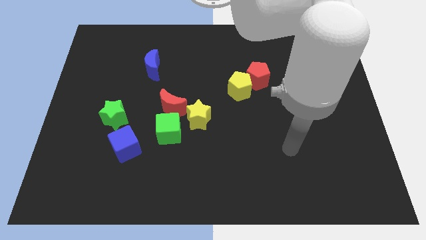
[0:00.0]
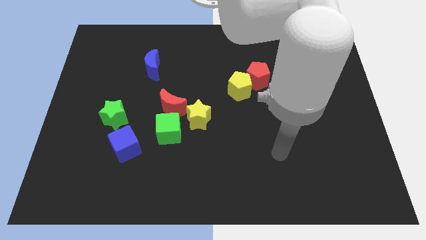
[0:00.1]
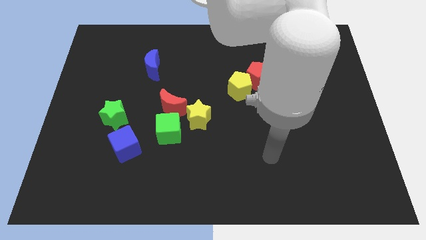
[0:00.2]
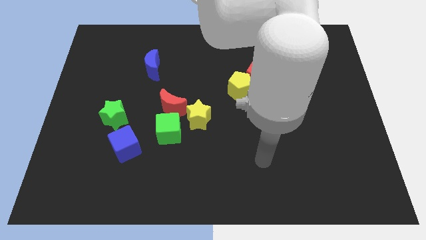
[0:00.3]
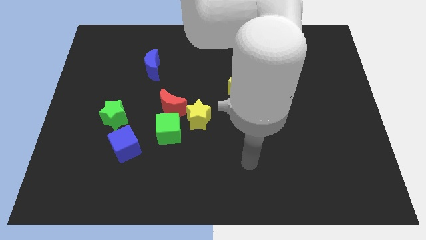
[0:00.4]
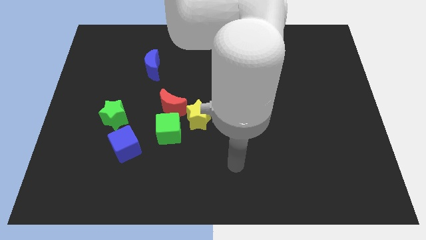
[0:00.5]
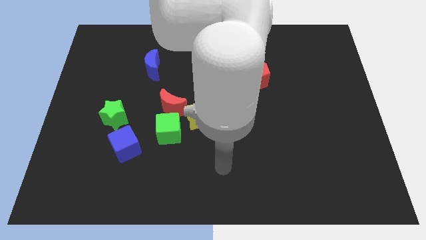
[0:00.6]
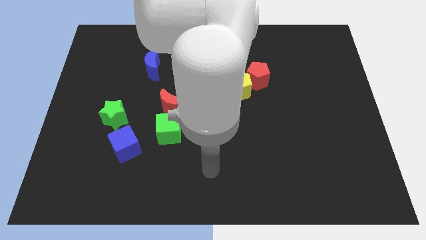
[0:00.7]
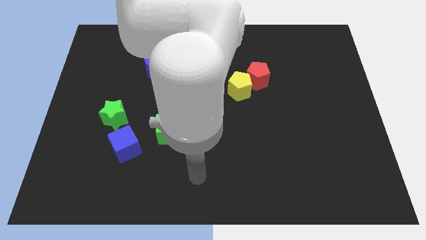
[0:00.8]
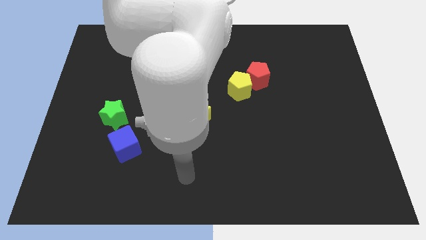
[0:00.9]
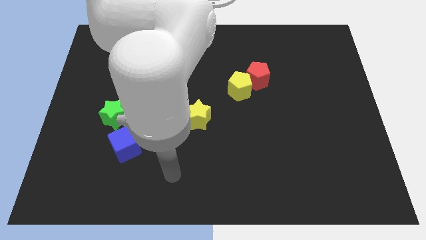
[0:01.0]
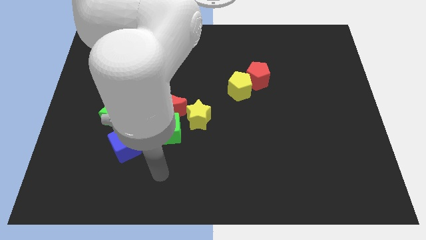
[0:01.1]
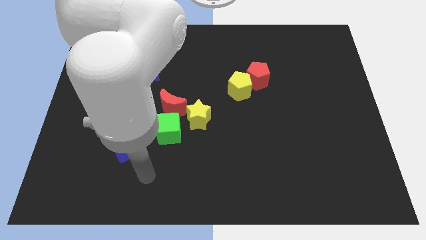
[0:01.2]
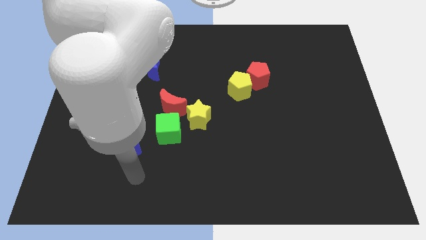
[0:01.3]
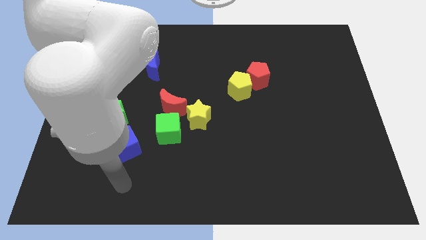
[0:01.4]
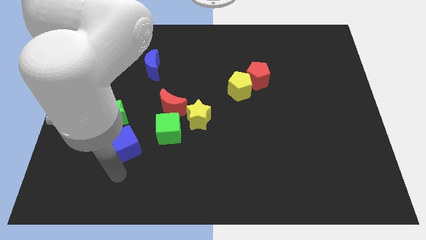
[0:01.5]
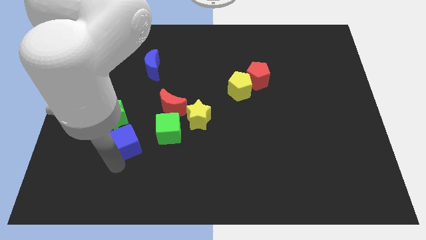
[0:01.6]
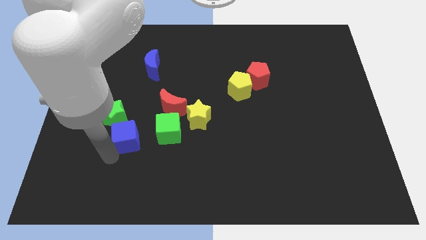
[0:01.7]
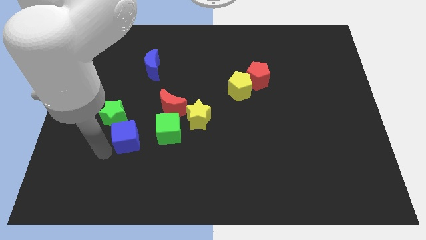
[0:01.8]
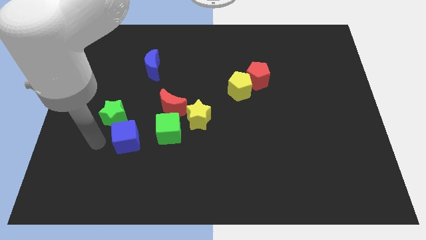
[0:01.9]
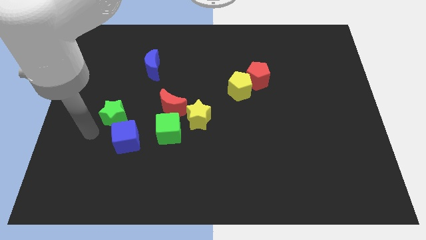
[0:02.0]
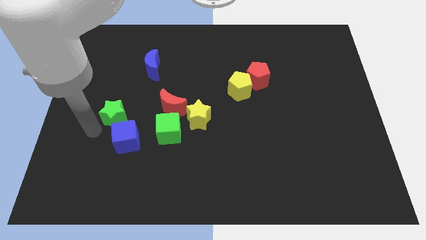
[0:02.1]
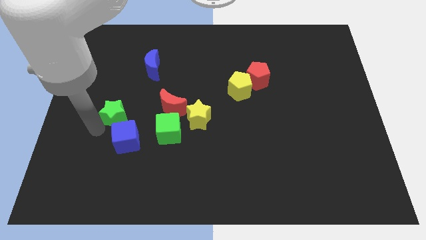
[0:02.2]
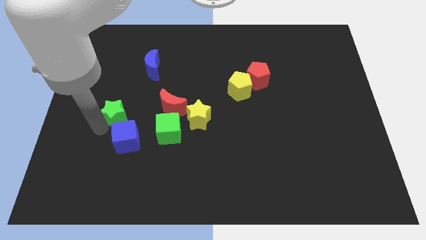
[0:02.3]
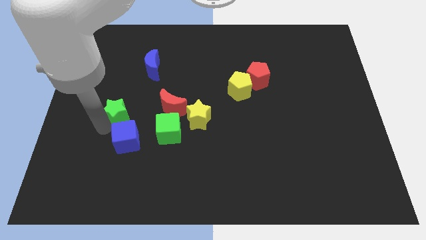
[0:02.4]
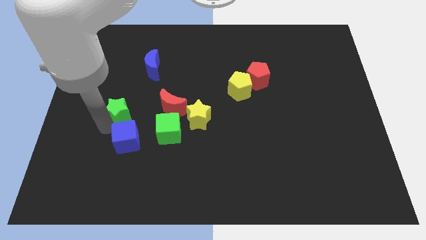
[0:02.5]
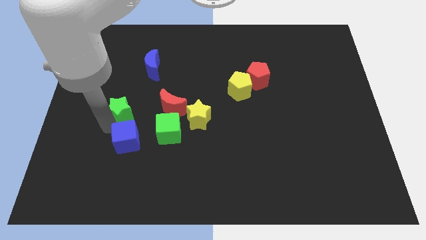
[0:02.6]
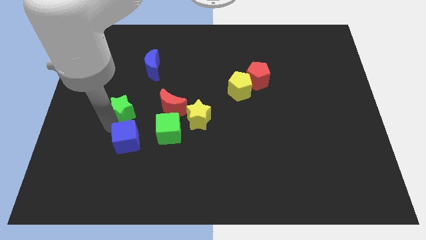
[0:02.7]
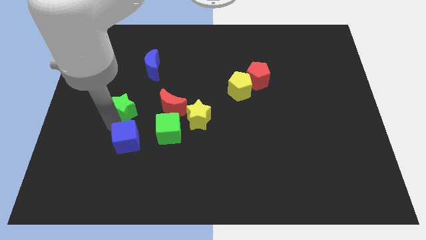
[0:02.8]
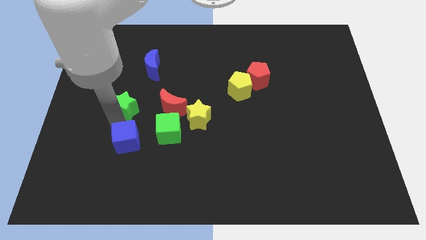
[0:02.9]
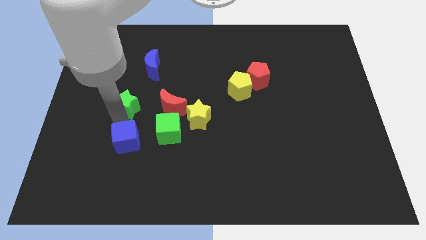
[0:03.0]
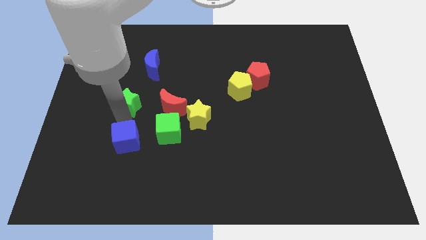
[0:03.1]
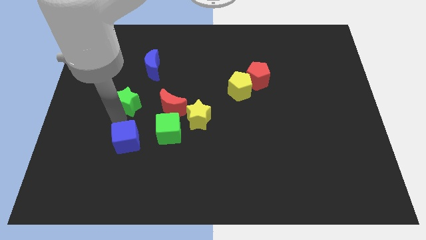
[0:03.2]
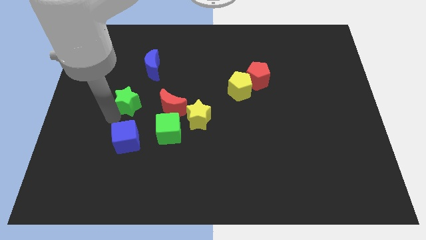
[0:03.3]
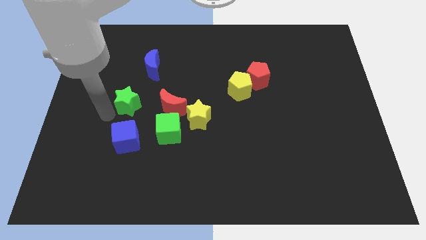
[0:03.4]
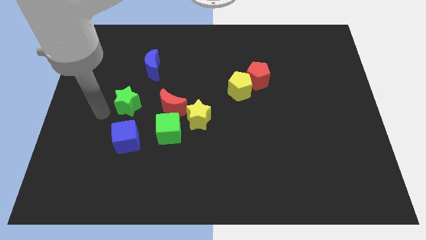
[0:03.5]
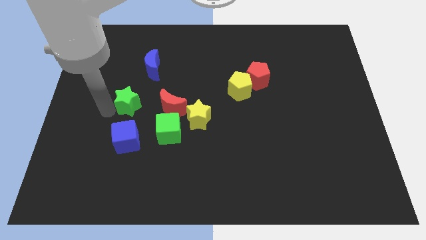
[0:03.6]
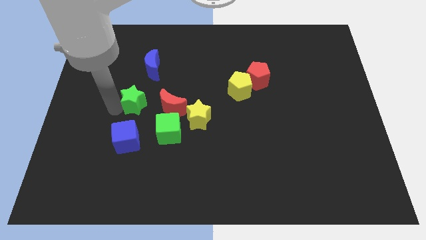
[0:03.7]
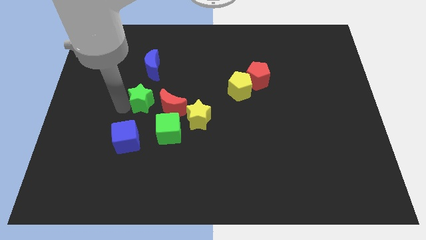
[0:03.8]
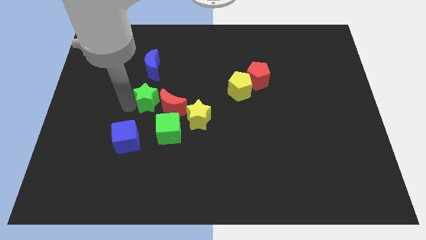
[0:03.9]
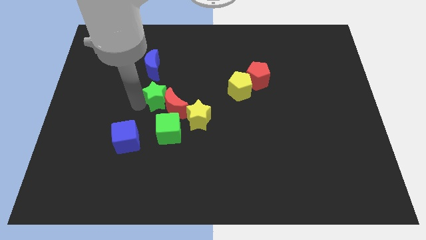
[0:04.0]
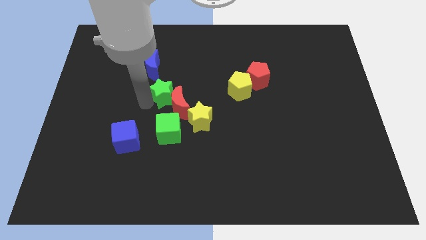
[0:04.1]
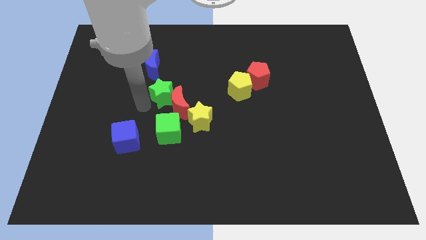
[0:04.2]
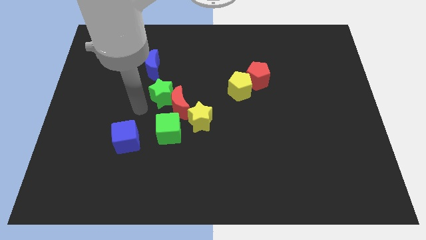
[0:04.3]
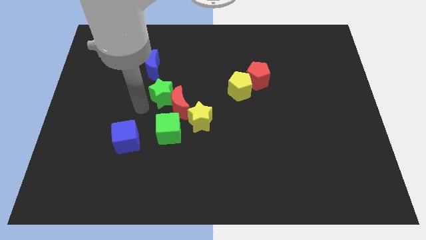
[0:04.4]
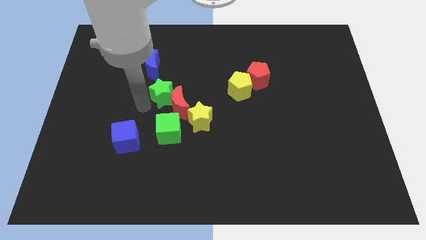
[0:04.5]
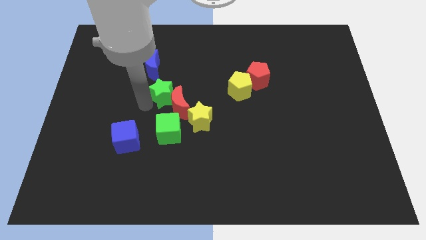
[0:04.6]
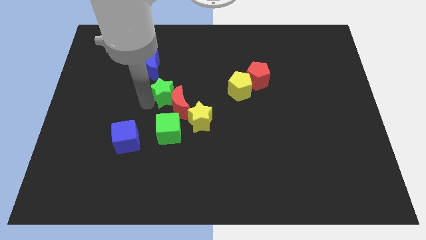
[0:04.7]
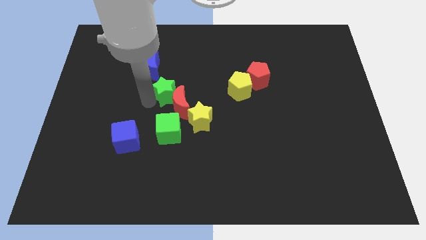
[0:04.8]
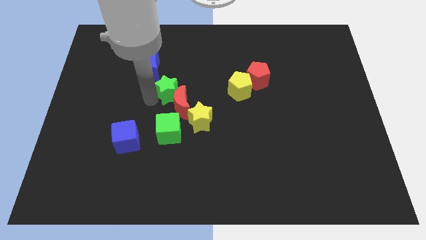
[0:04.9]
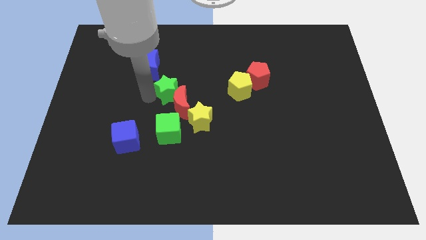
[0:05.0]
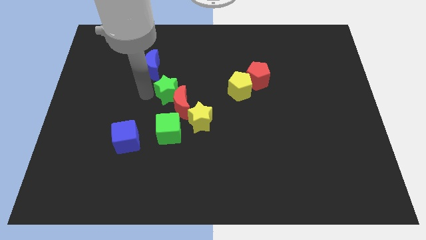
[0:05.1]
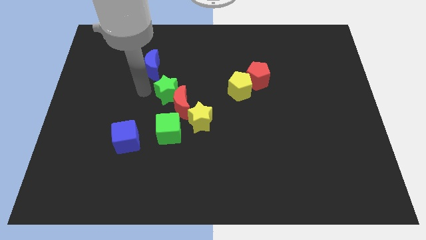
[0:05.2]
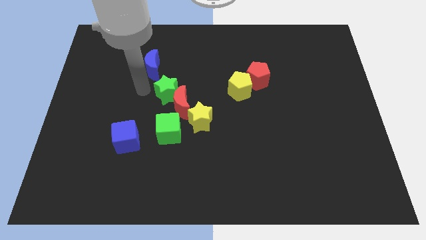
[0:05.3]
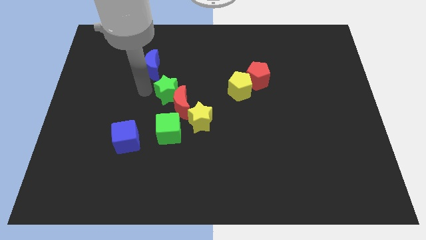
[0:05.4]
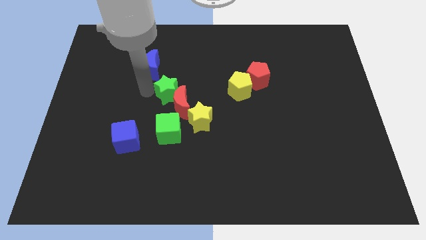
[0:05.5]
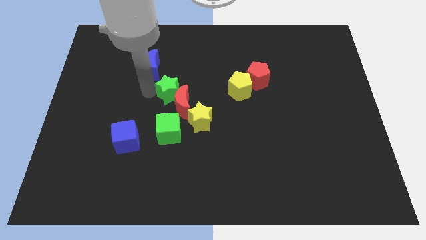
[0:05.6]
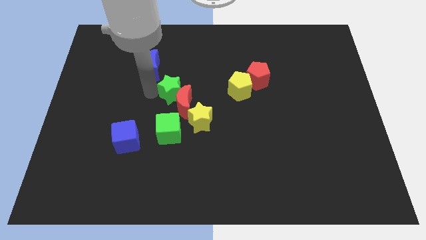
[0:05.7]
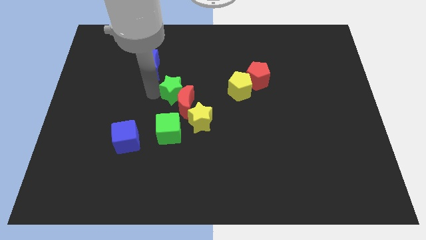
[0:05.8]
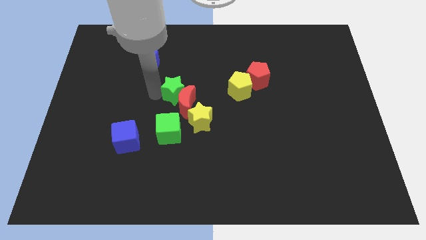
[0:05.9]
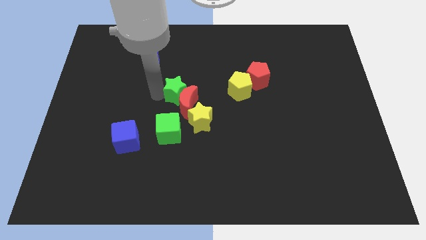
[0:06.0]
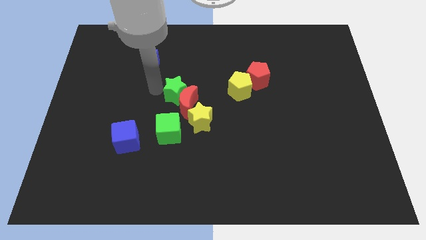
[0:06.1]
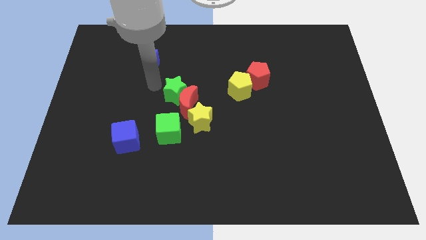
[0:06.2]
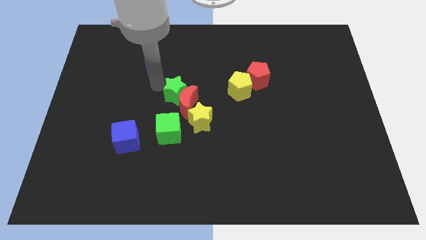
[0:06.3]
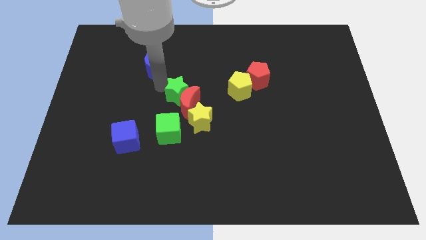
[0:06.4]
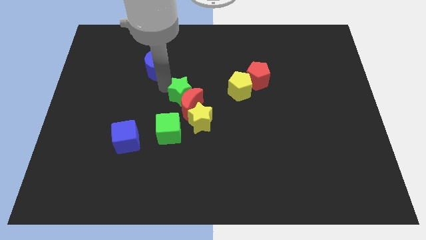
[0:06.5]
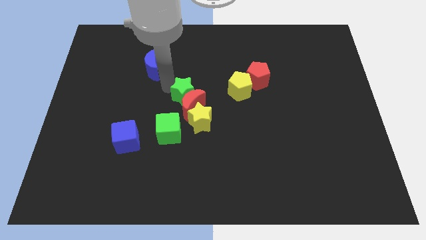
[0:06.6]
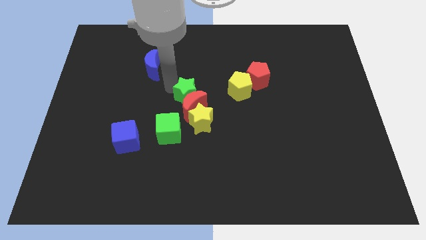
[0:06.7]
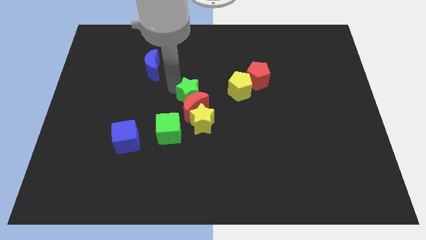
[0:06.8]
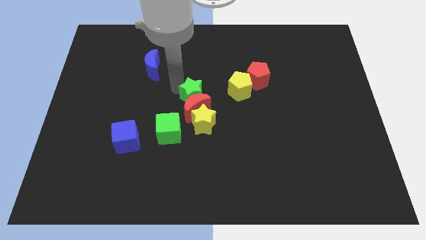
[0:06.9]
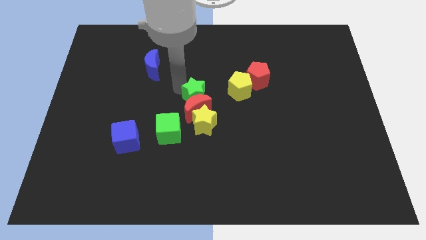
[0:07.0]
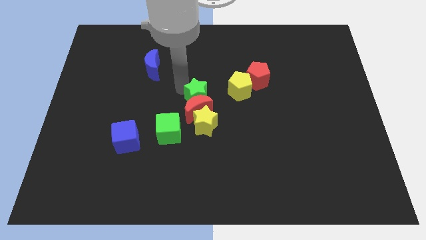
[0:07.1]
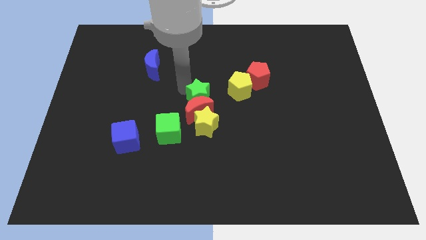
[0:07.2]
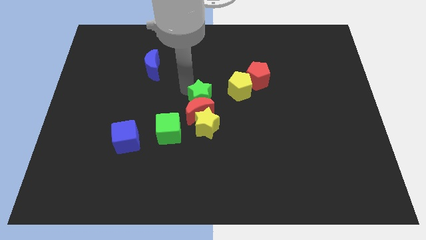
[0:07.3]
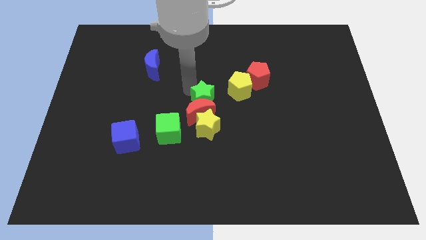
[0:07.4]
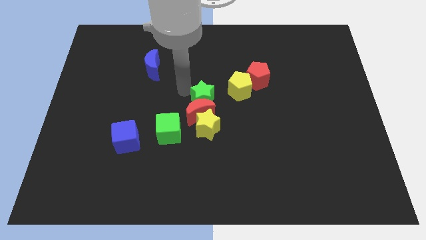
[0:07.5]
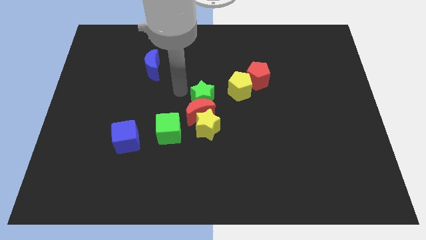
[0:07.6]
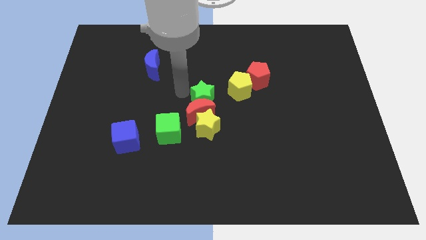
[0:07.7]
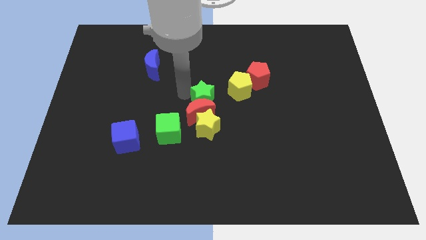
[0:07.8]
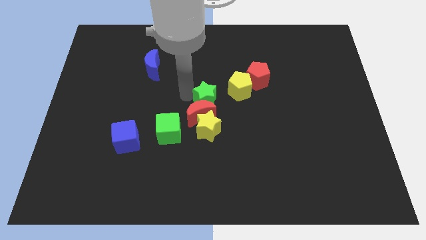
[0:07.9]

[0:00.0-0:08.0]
move the green star to the right
